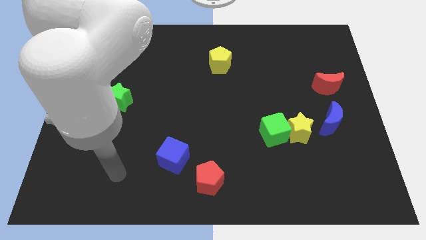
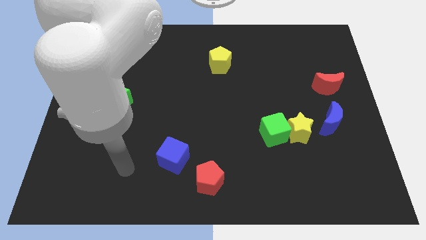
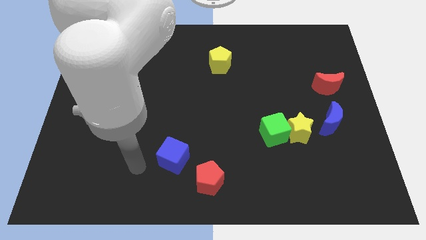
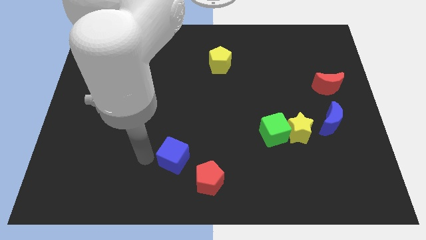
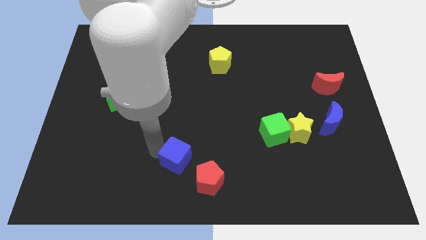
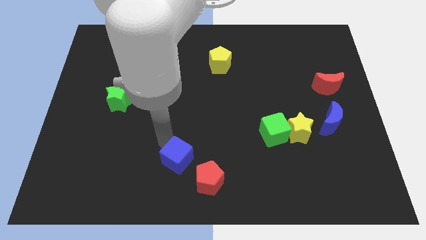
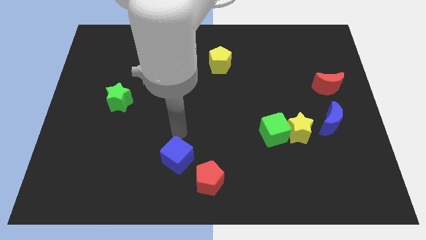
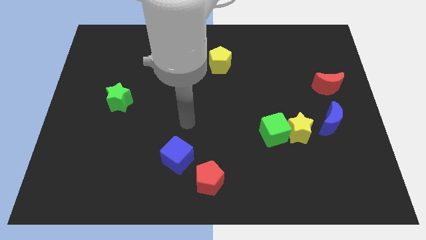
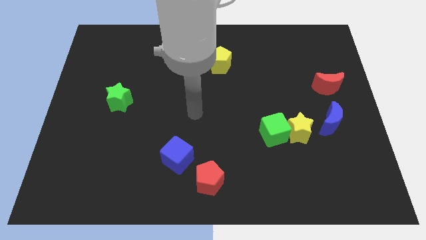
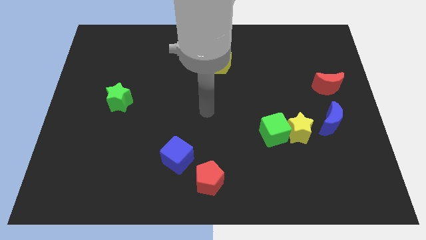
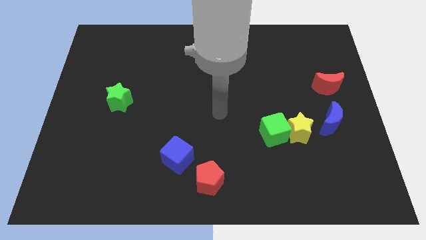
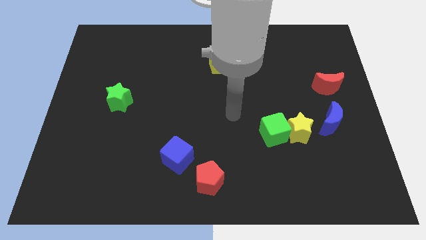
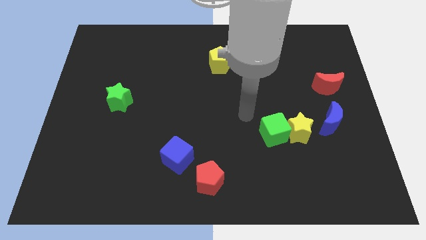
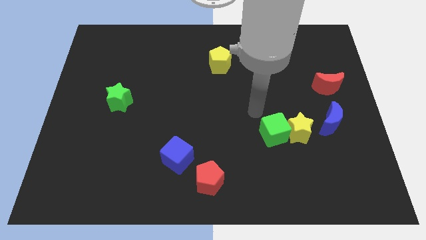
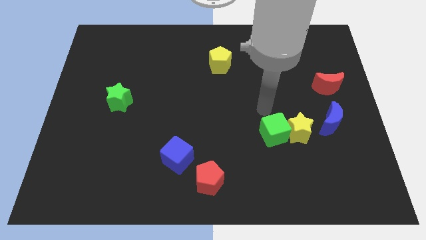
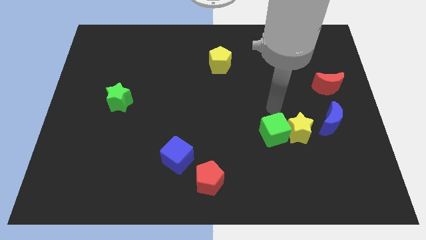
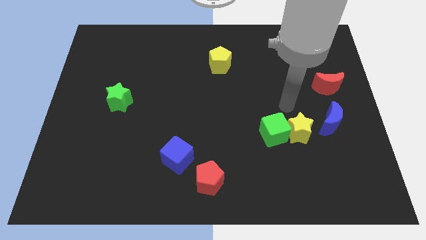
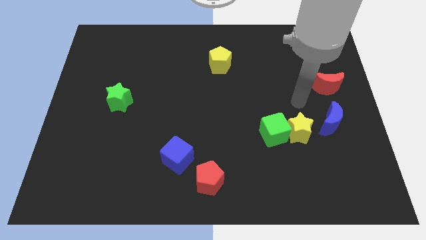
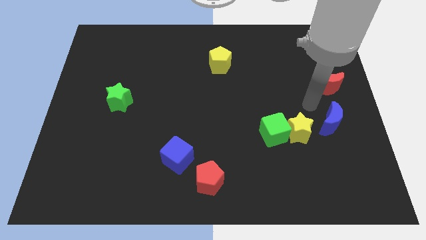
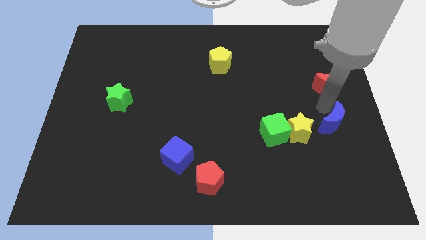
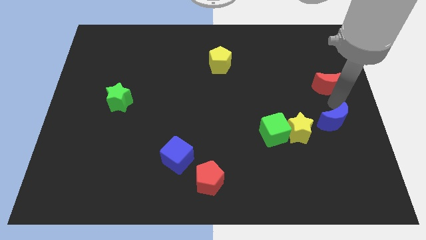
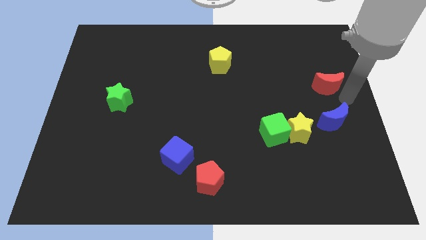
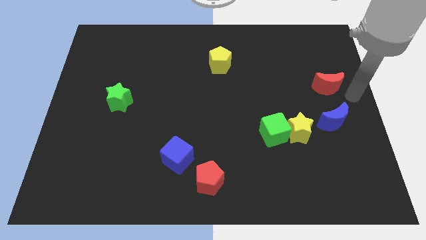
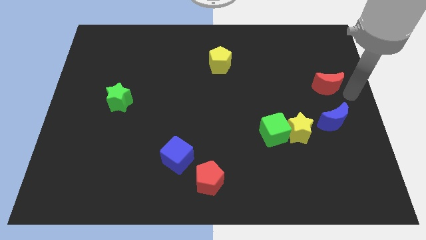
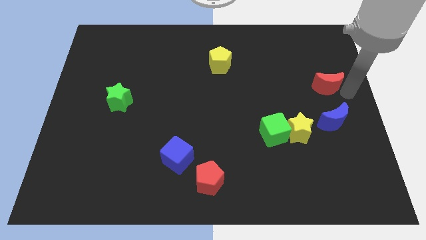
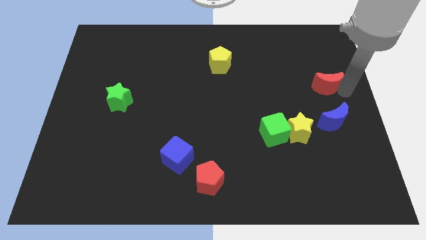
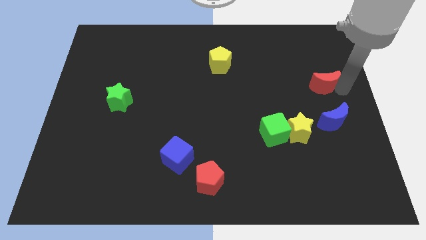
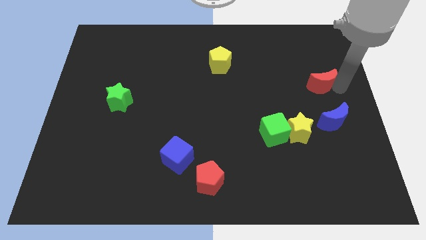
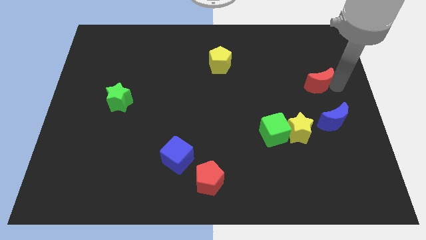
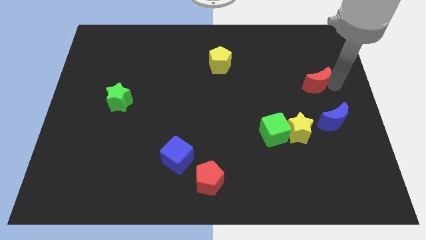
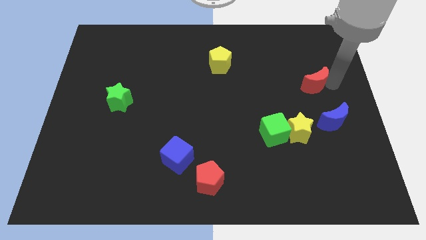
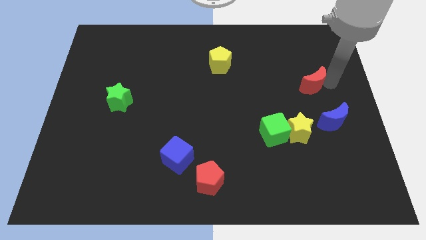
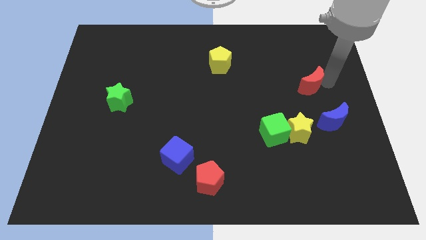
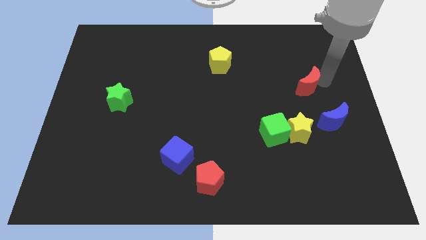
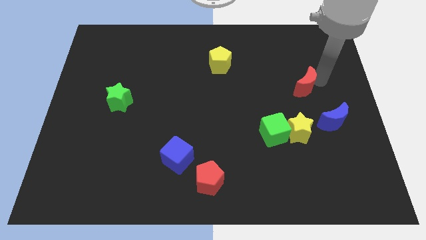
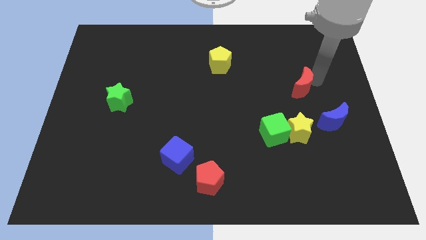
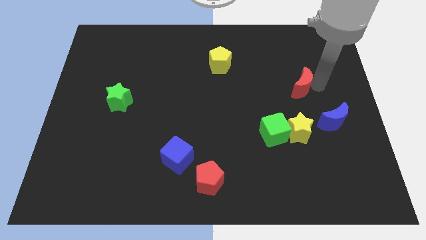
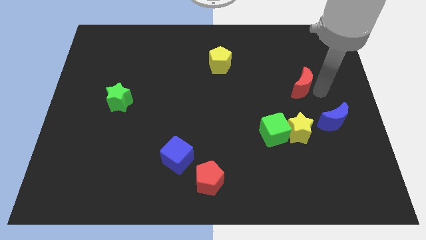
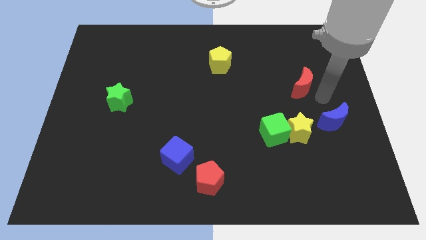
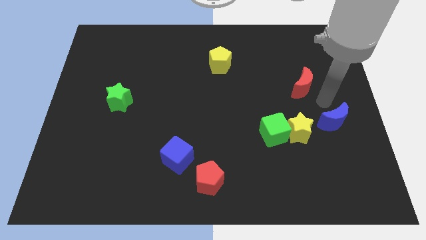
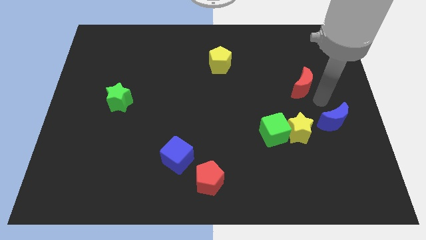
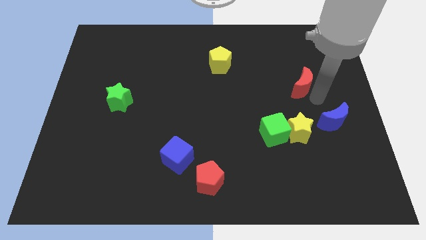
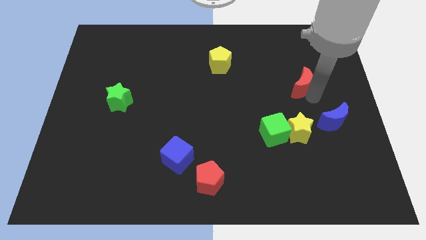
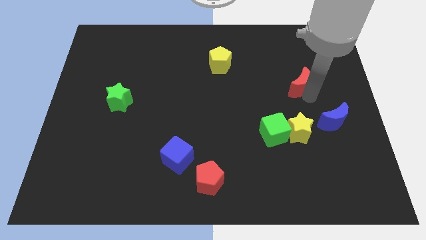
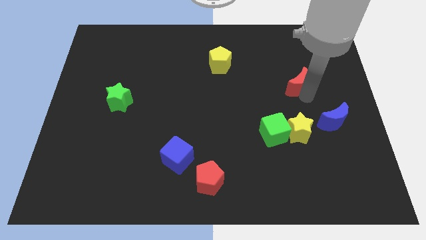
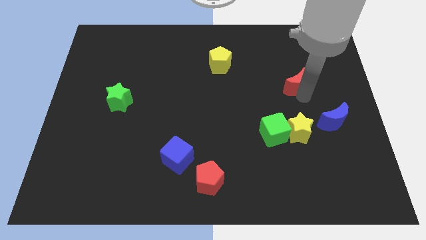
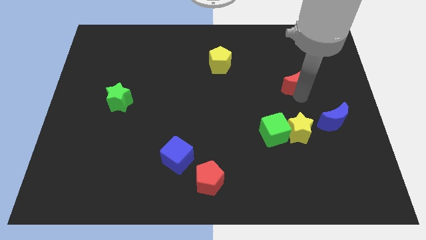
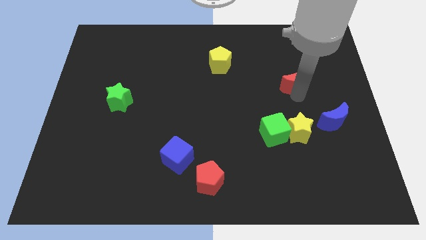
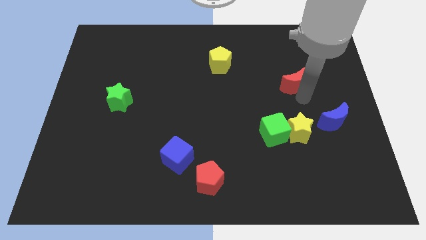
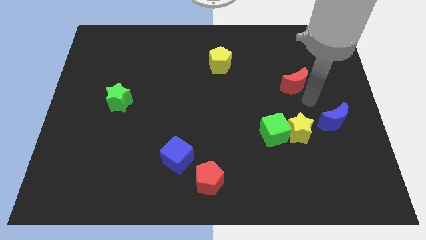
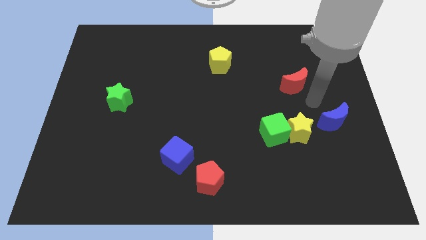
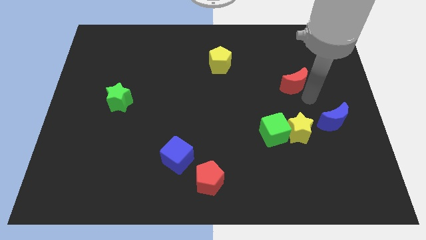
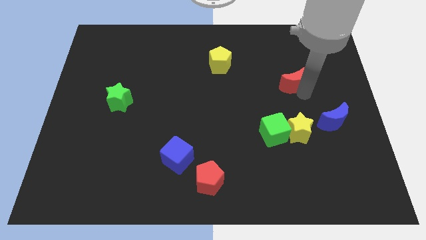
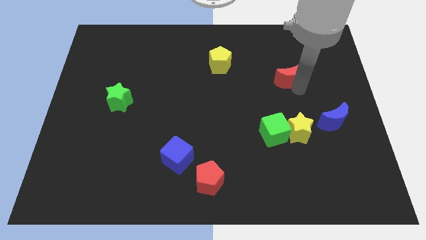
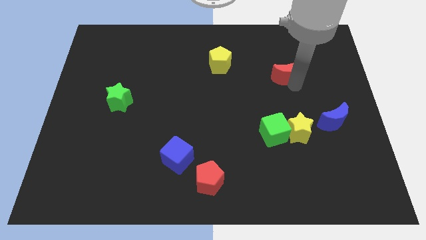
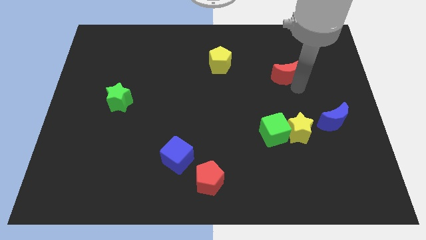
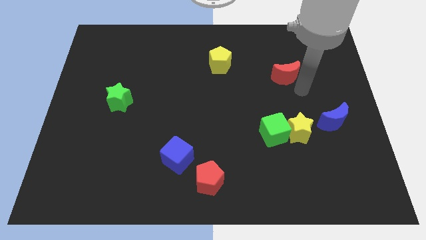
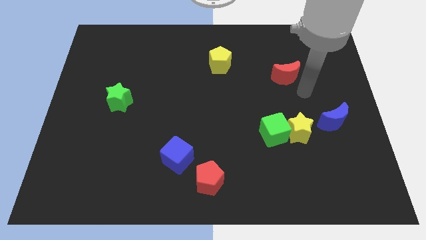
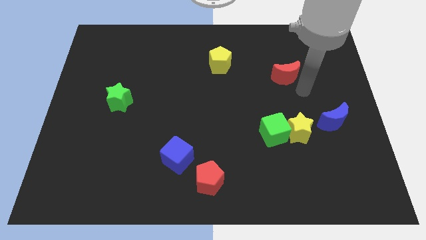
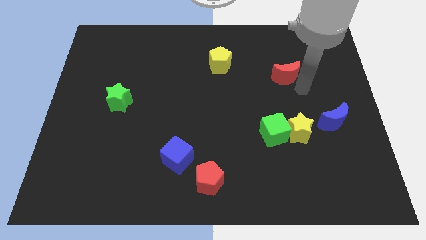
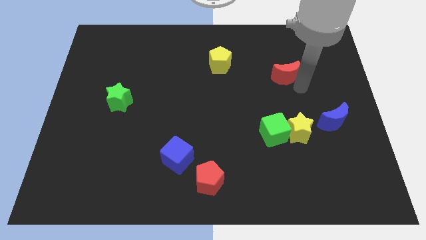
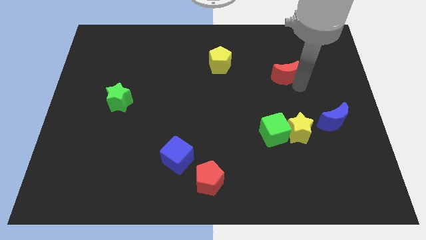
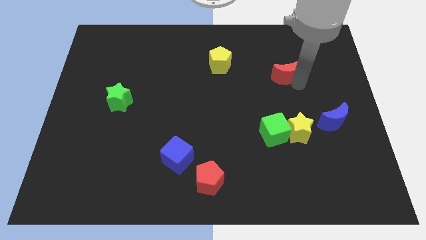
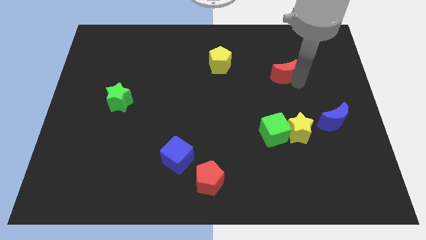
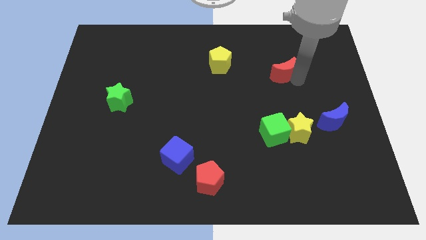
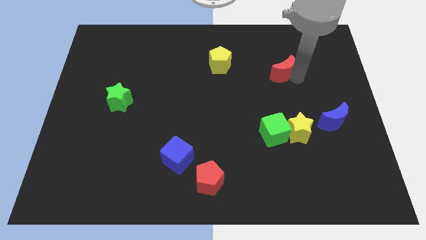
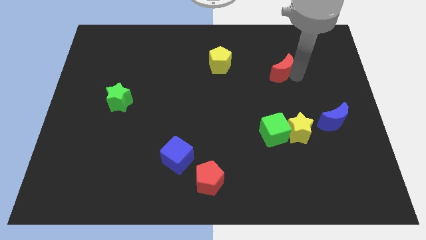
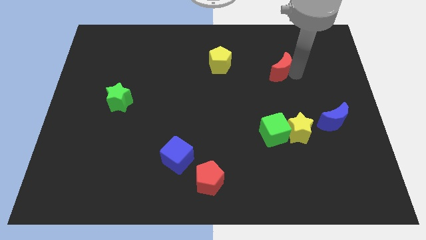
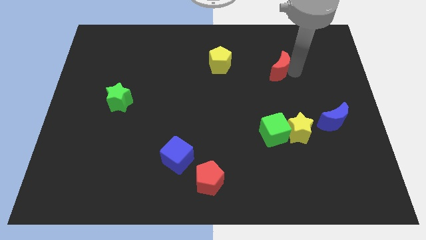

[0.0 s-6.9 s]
move the red moon to the right side of the yellow pentagon
